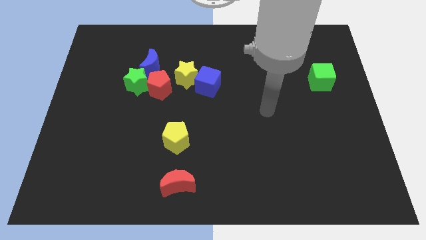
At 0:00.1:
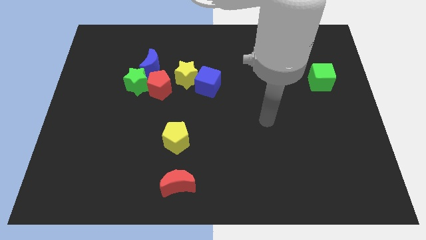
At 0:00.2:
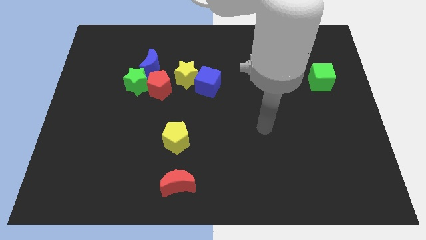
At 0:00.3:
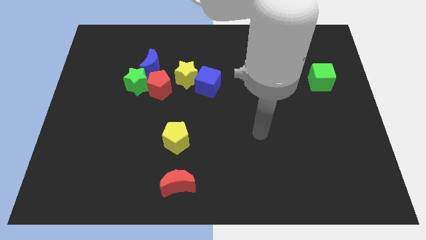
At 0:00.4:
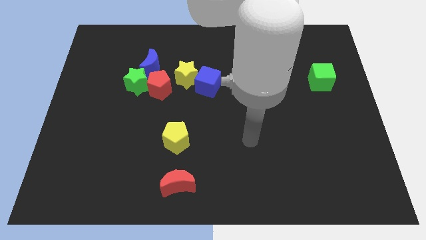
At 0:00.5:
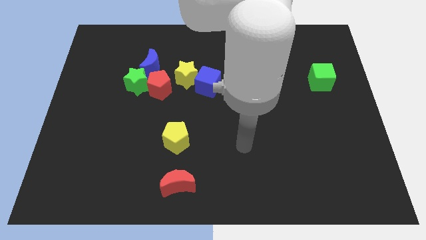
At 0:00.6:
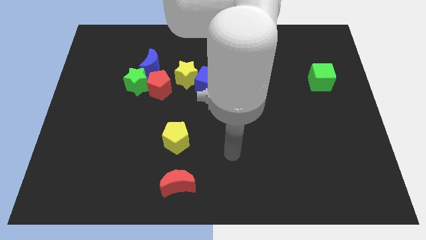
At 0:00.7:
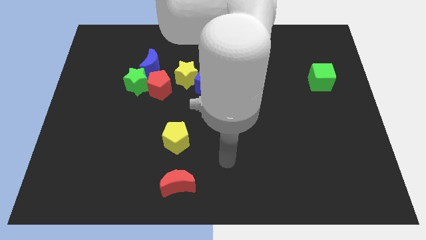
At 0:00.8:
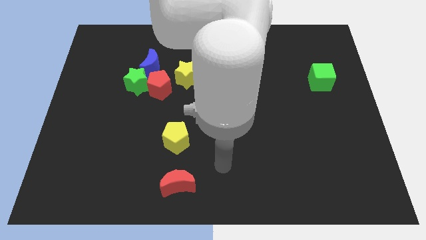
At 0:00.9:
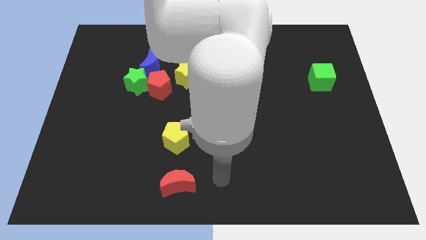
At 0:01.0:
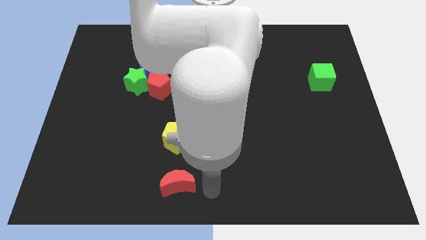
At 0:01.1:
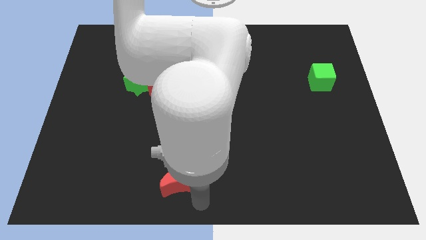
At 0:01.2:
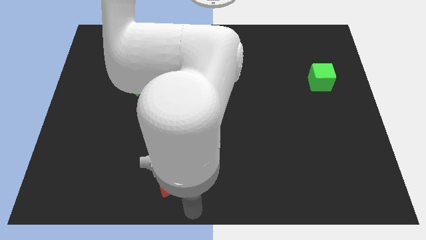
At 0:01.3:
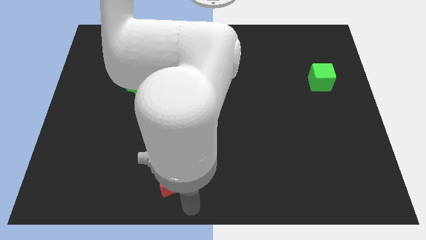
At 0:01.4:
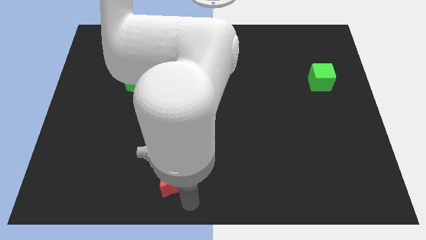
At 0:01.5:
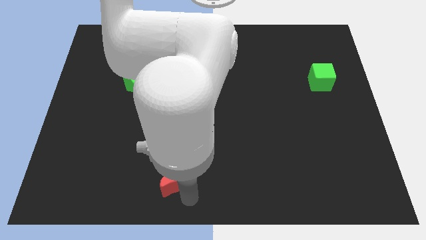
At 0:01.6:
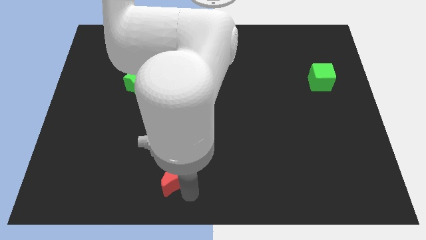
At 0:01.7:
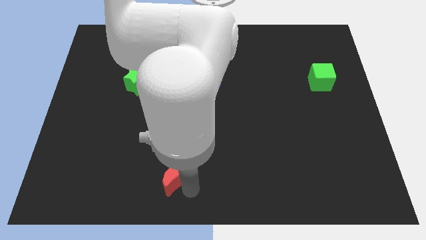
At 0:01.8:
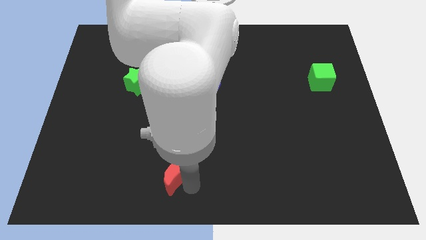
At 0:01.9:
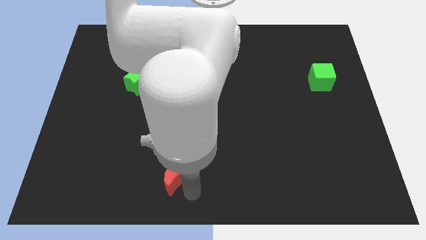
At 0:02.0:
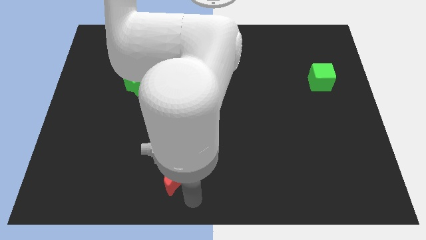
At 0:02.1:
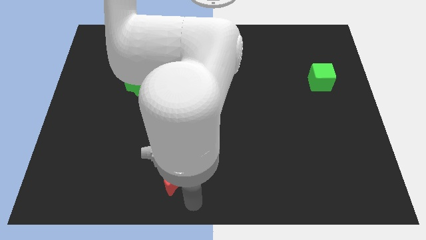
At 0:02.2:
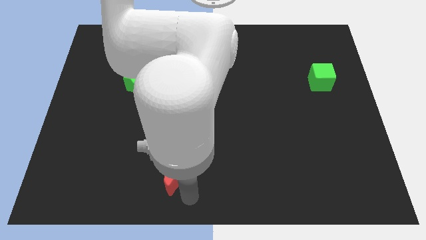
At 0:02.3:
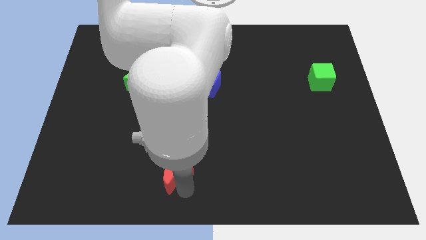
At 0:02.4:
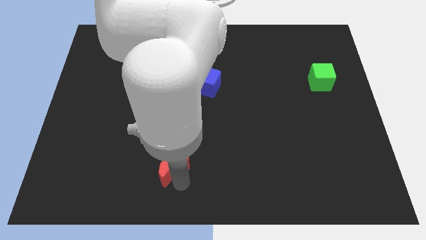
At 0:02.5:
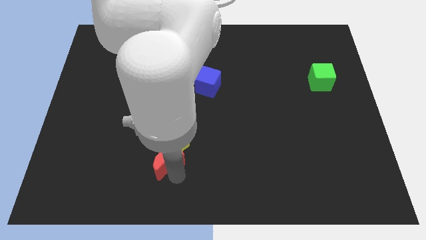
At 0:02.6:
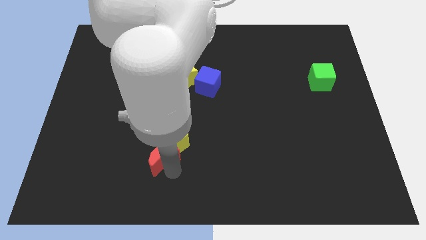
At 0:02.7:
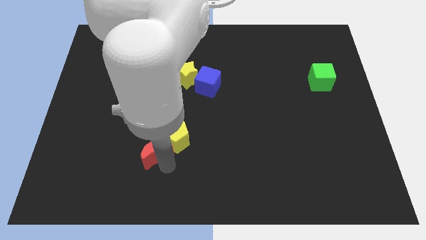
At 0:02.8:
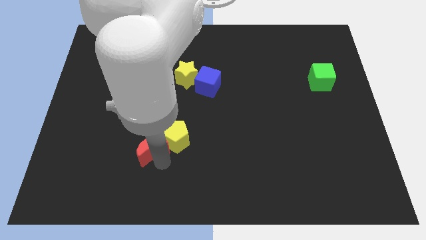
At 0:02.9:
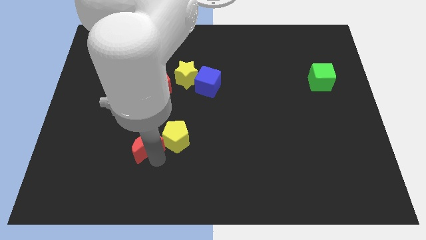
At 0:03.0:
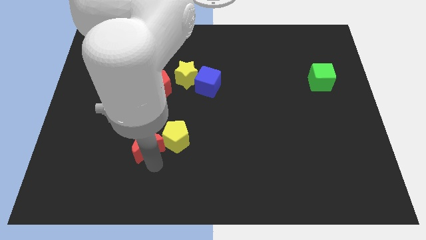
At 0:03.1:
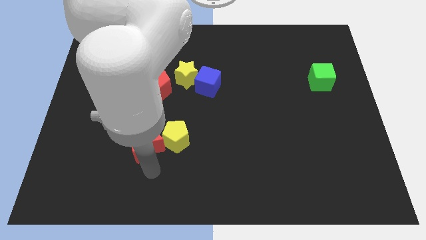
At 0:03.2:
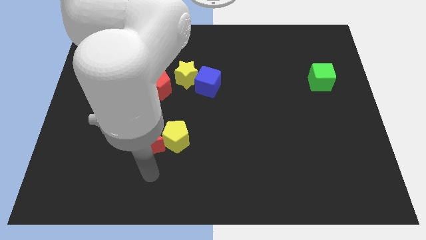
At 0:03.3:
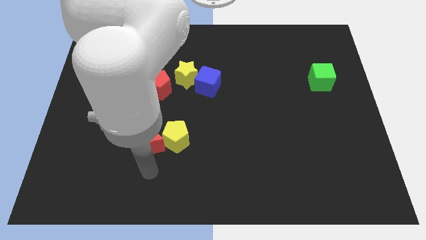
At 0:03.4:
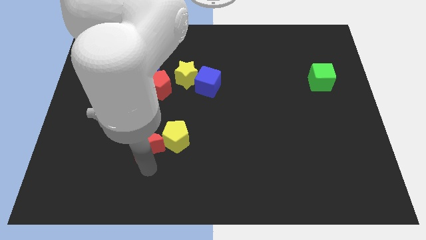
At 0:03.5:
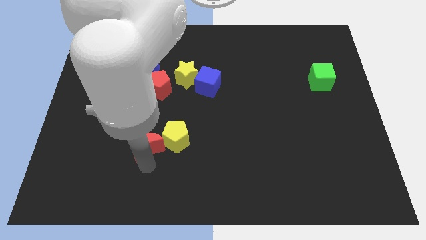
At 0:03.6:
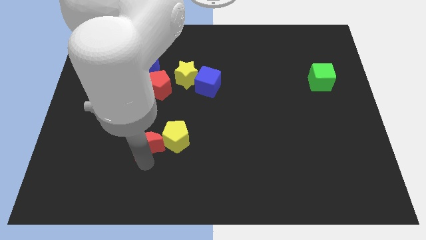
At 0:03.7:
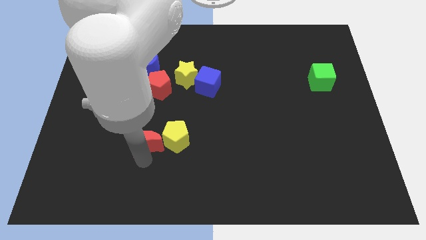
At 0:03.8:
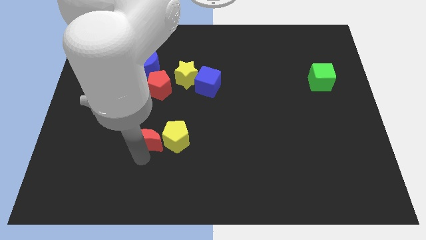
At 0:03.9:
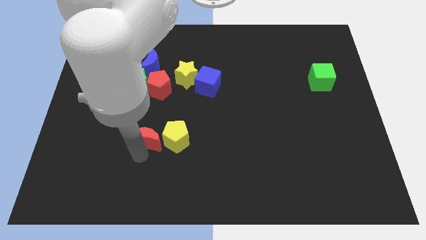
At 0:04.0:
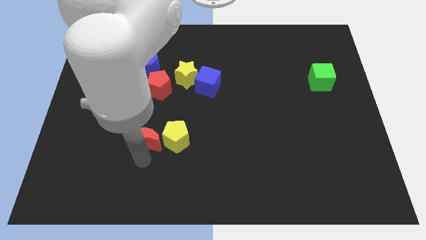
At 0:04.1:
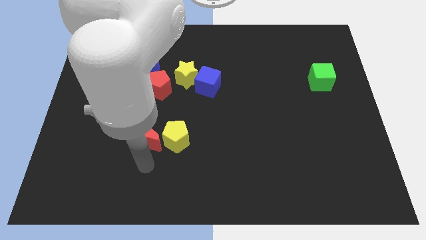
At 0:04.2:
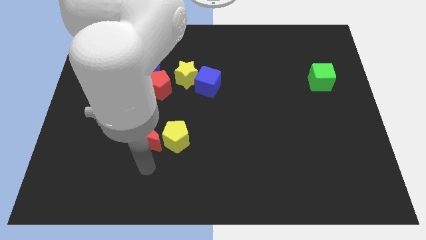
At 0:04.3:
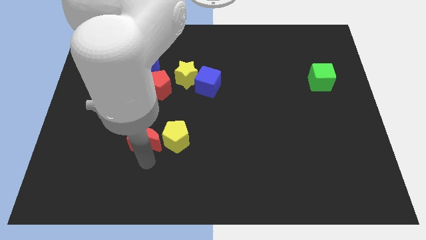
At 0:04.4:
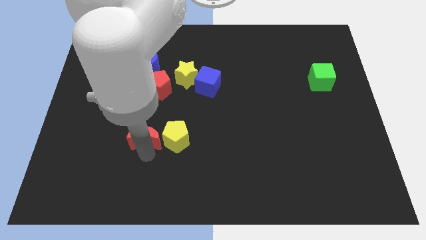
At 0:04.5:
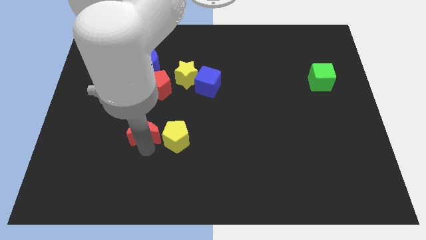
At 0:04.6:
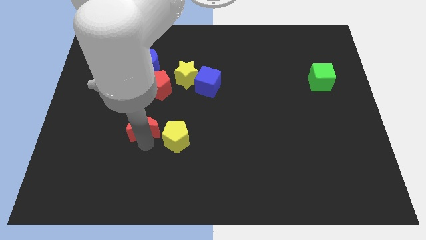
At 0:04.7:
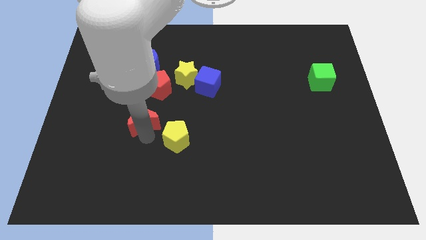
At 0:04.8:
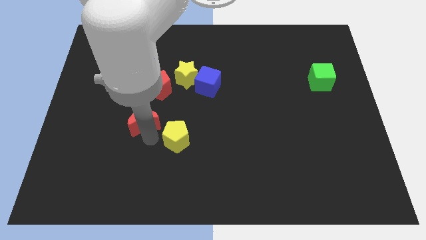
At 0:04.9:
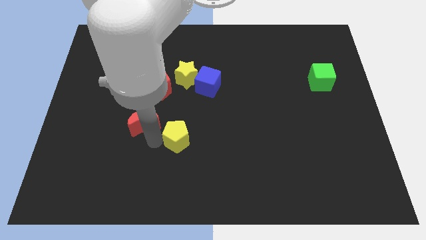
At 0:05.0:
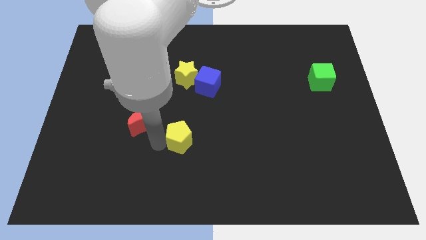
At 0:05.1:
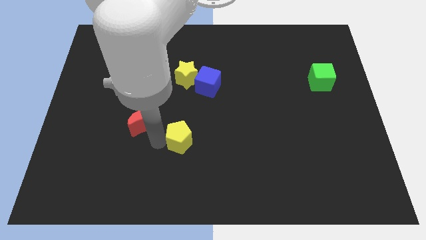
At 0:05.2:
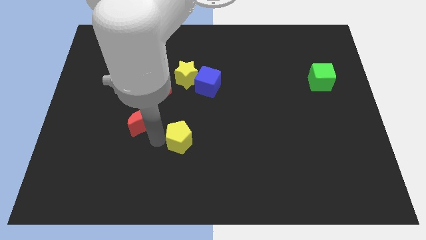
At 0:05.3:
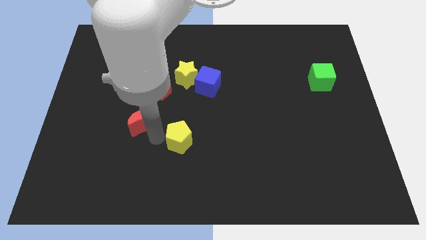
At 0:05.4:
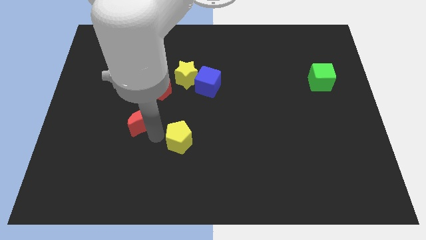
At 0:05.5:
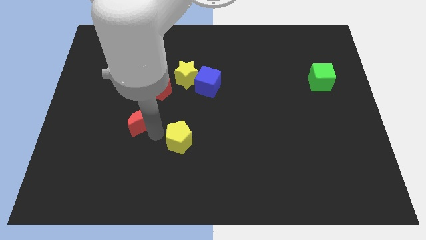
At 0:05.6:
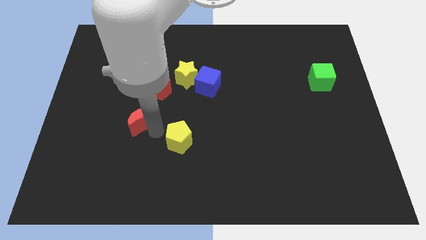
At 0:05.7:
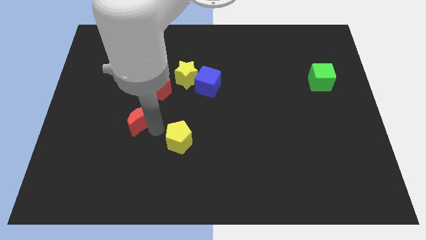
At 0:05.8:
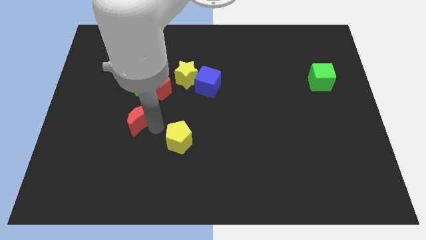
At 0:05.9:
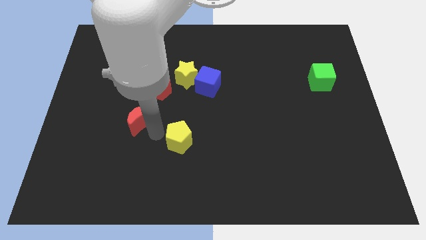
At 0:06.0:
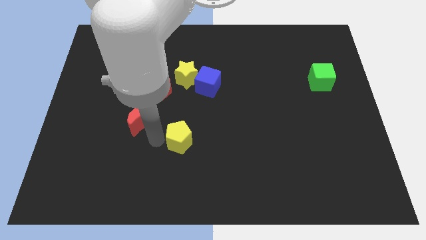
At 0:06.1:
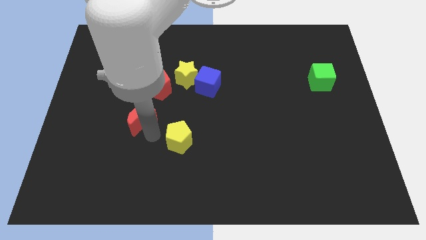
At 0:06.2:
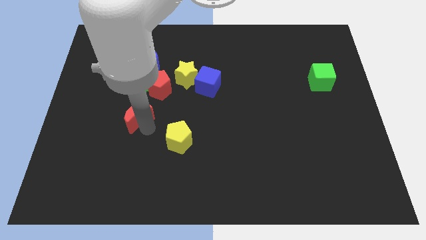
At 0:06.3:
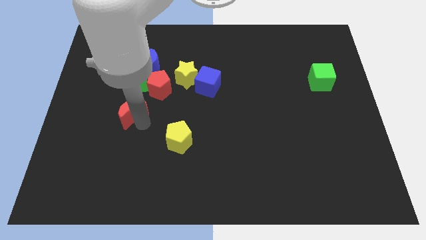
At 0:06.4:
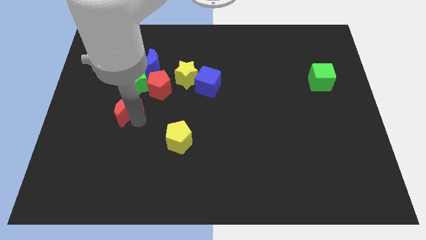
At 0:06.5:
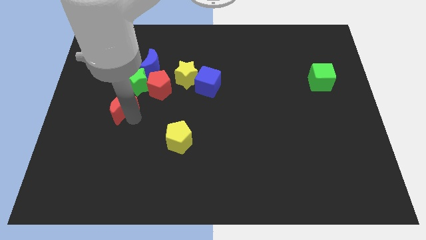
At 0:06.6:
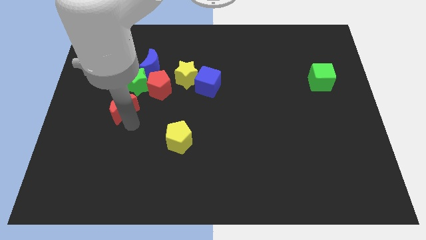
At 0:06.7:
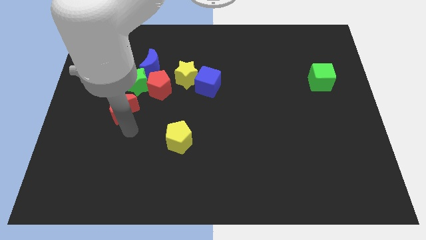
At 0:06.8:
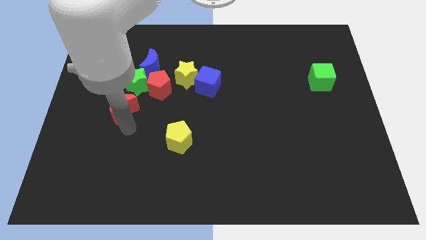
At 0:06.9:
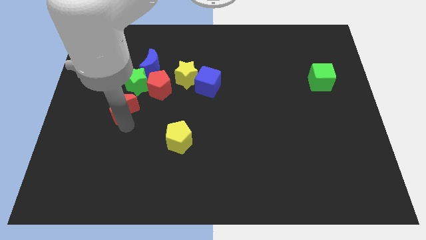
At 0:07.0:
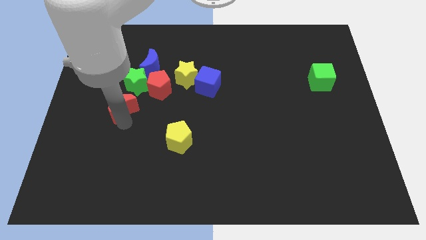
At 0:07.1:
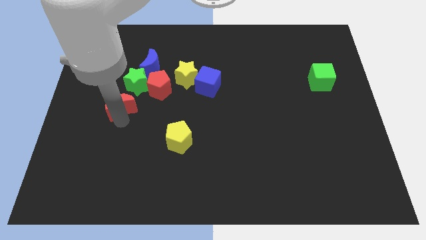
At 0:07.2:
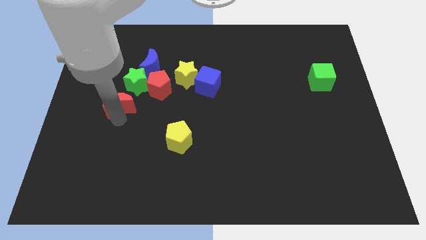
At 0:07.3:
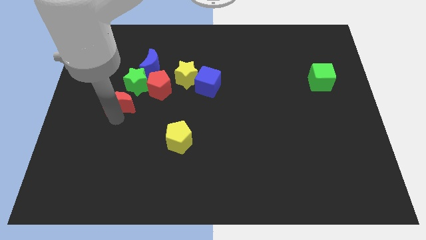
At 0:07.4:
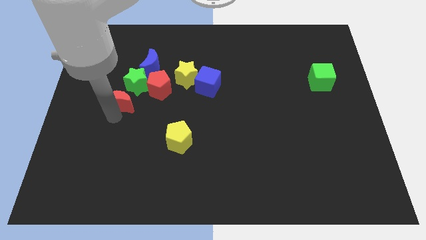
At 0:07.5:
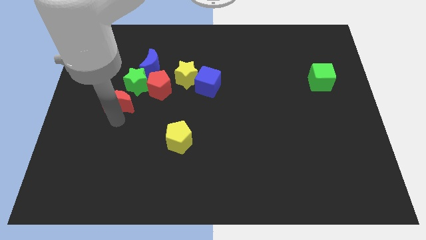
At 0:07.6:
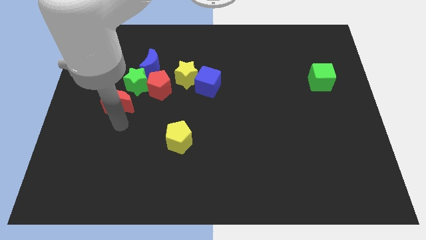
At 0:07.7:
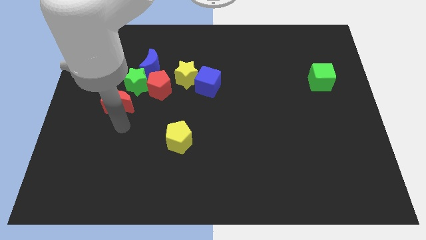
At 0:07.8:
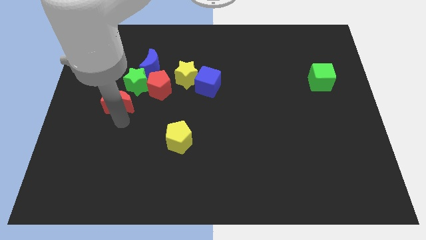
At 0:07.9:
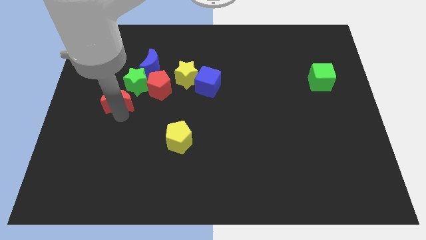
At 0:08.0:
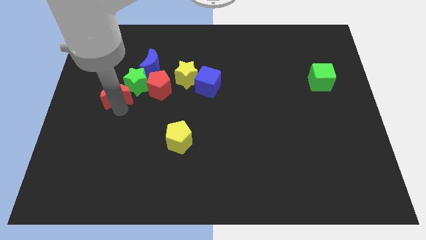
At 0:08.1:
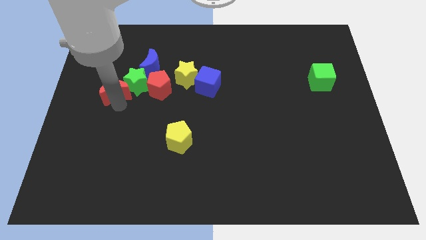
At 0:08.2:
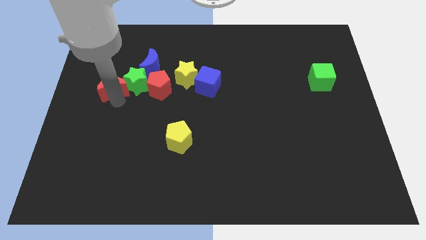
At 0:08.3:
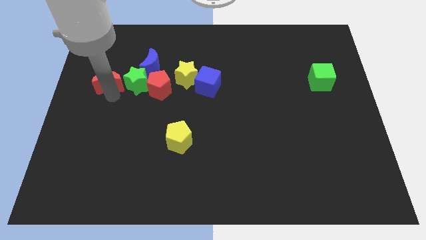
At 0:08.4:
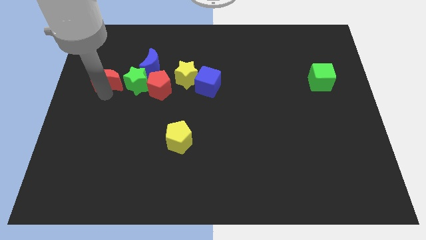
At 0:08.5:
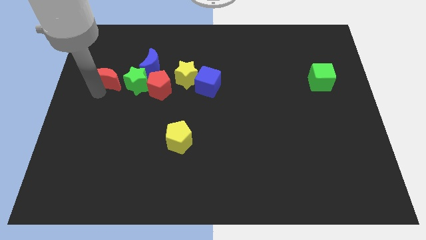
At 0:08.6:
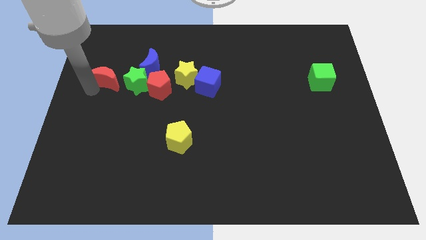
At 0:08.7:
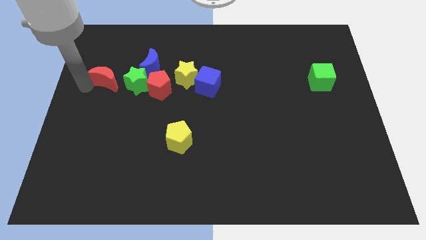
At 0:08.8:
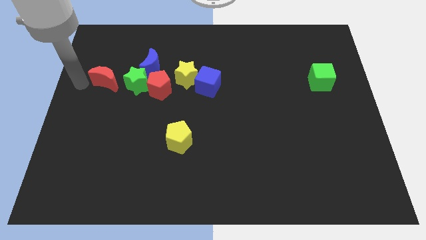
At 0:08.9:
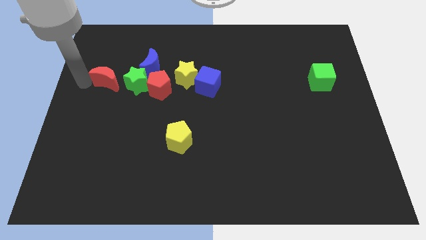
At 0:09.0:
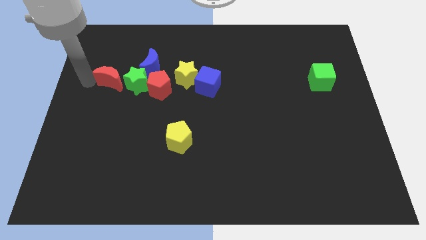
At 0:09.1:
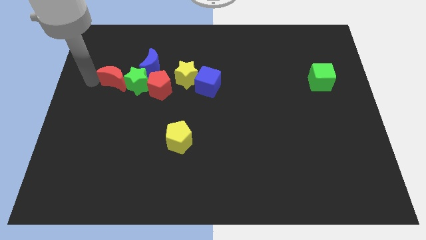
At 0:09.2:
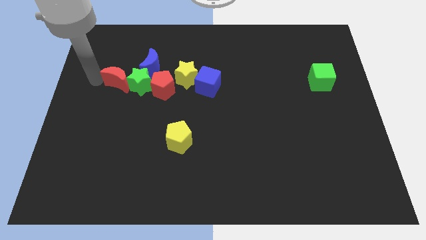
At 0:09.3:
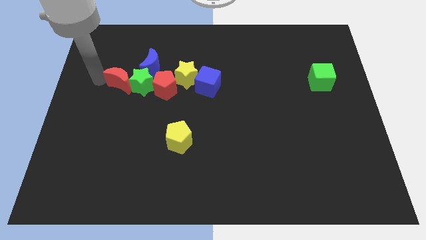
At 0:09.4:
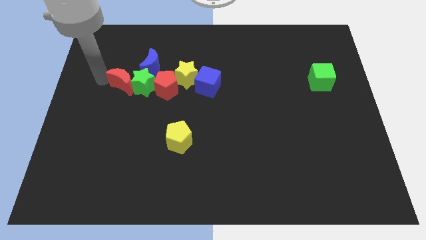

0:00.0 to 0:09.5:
move the red moon left of the yellow star
